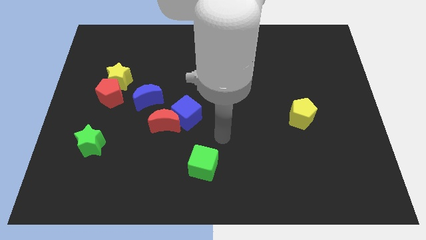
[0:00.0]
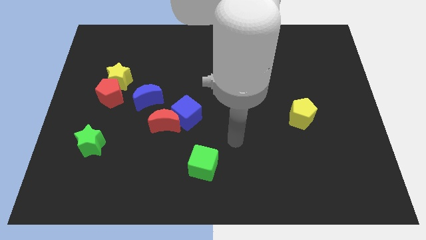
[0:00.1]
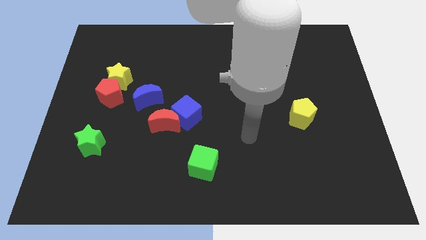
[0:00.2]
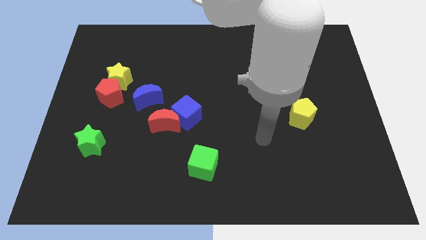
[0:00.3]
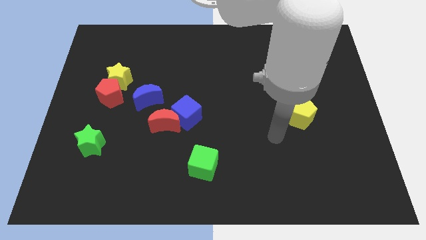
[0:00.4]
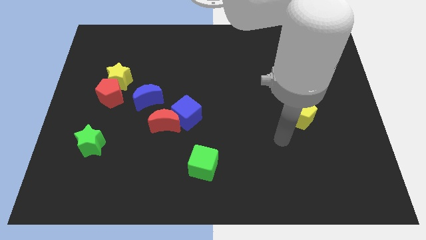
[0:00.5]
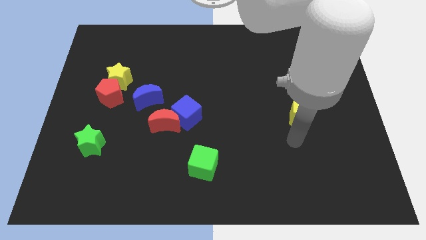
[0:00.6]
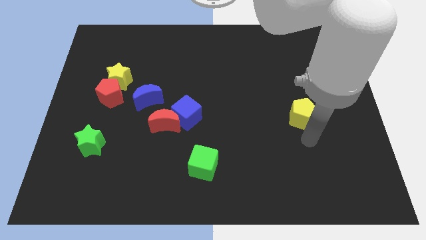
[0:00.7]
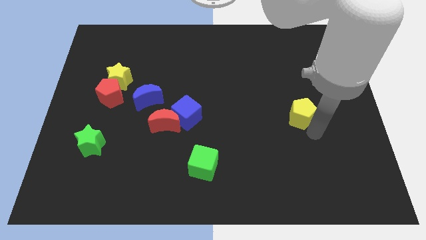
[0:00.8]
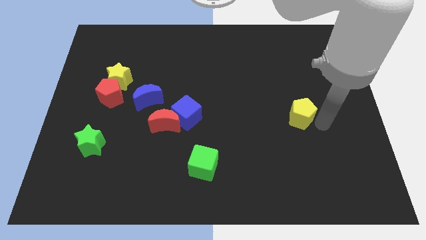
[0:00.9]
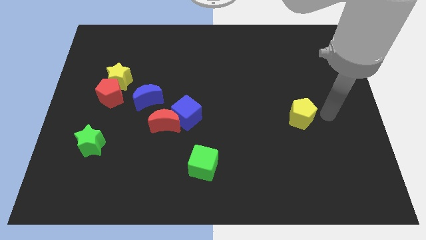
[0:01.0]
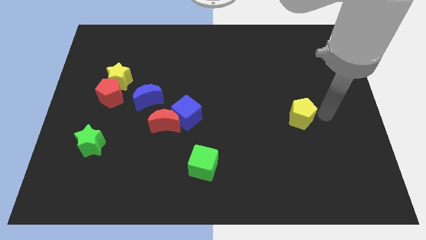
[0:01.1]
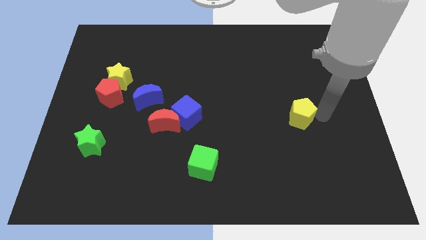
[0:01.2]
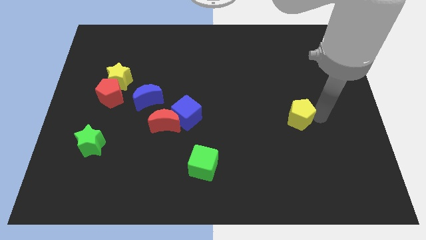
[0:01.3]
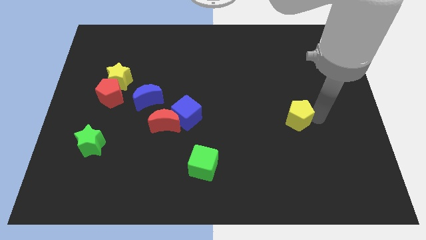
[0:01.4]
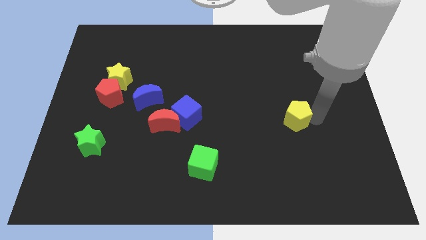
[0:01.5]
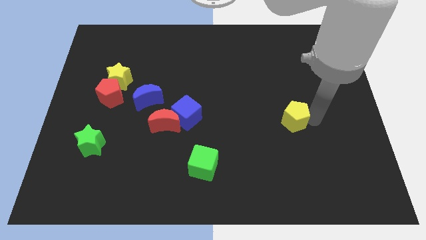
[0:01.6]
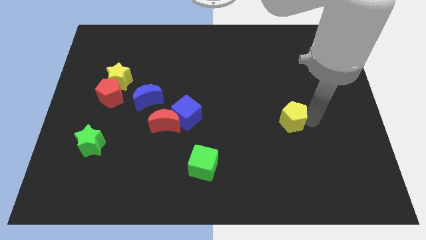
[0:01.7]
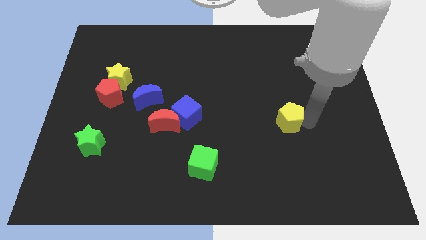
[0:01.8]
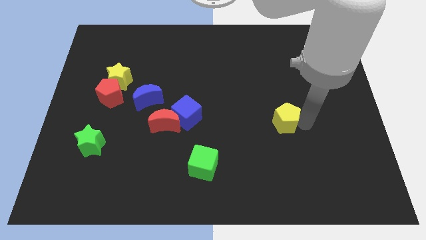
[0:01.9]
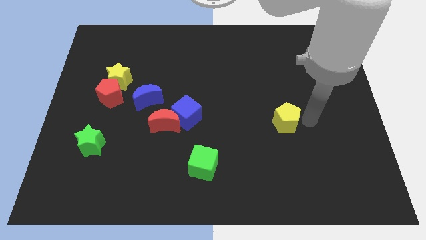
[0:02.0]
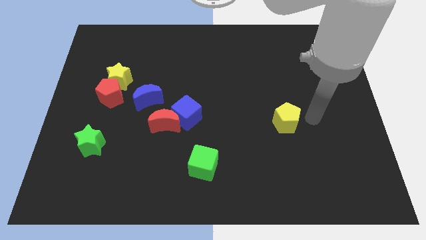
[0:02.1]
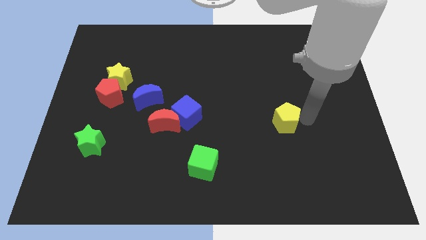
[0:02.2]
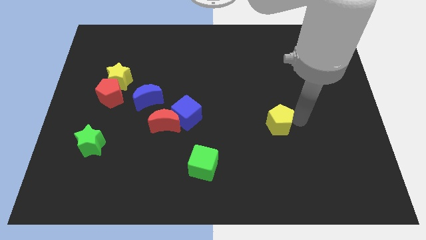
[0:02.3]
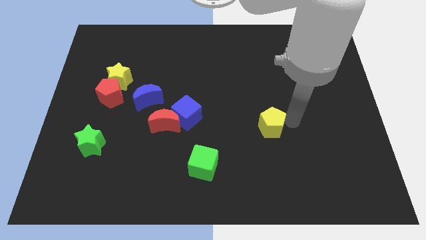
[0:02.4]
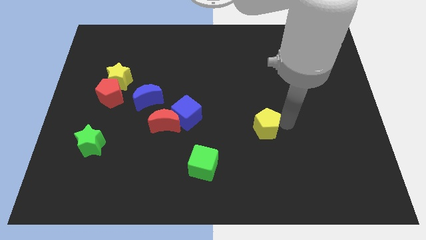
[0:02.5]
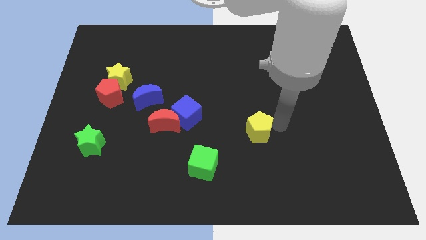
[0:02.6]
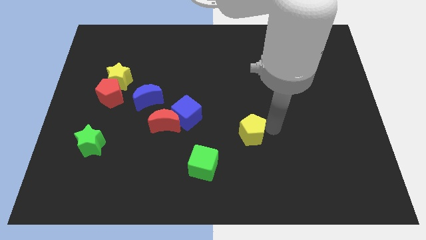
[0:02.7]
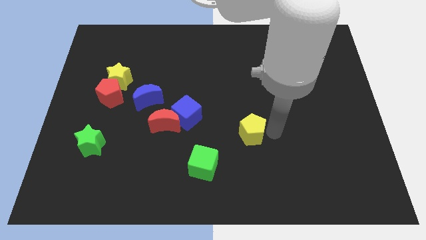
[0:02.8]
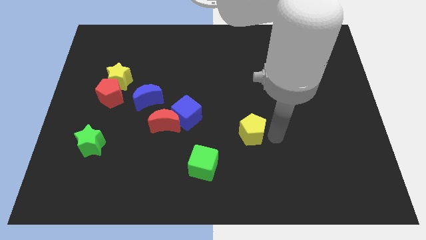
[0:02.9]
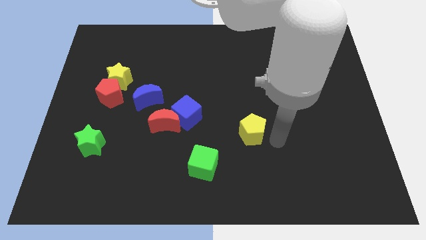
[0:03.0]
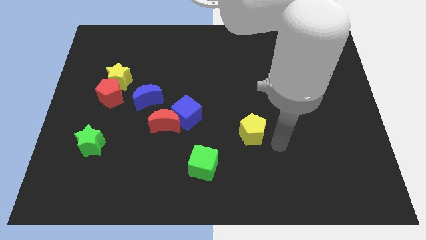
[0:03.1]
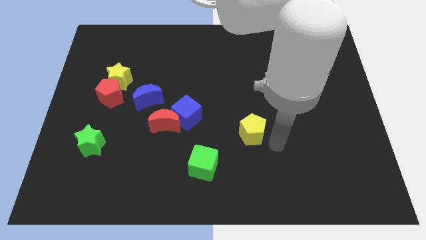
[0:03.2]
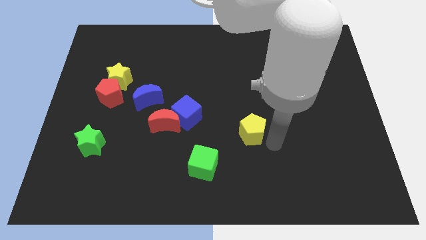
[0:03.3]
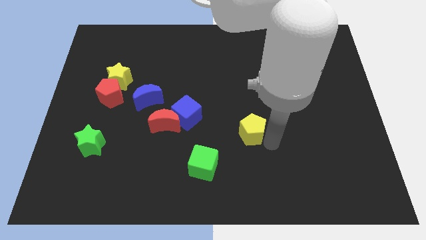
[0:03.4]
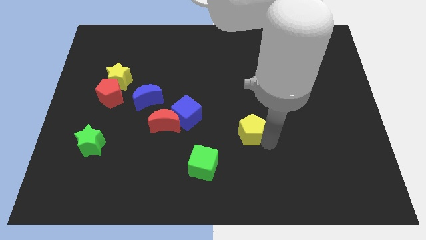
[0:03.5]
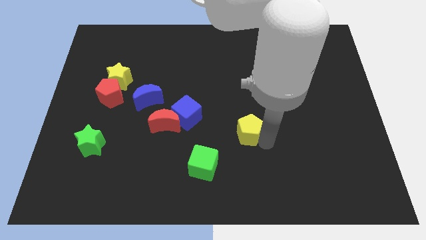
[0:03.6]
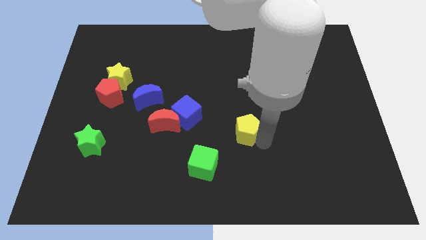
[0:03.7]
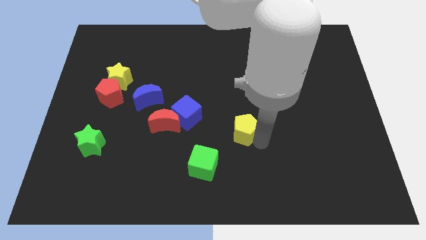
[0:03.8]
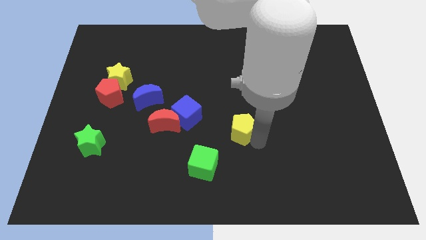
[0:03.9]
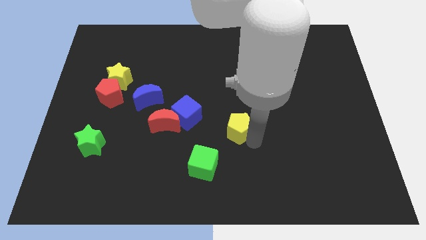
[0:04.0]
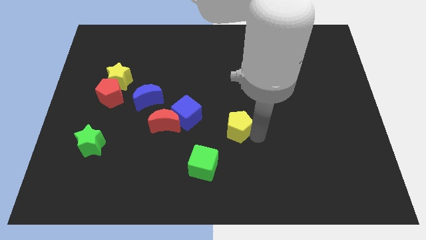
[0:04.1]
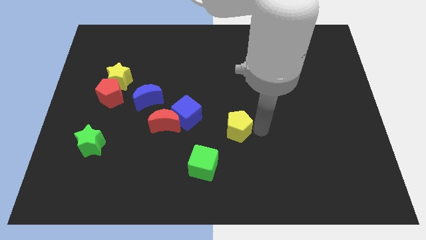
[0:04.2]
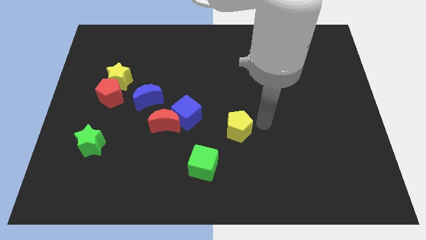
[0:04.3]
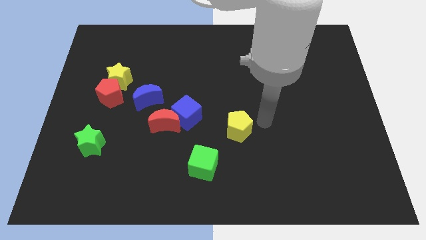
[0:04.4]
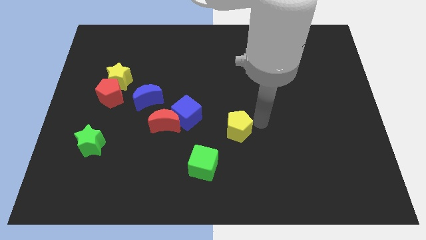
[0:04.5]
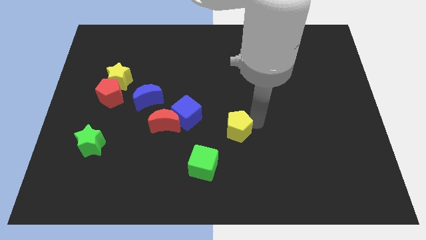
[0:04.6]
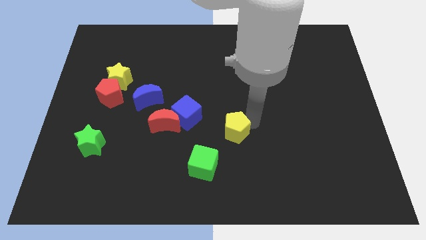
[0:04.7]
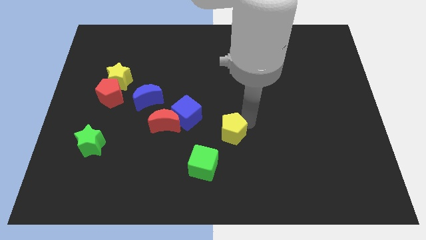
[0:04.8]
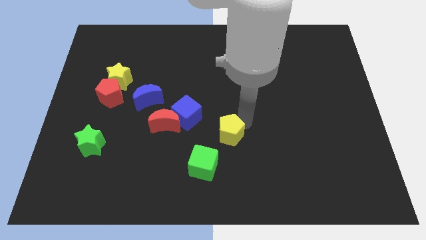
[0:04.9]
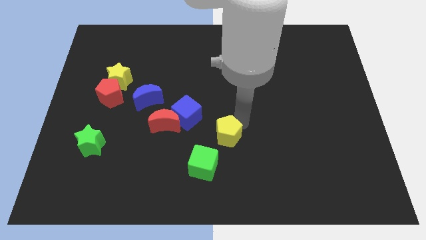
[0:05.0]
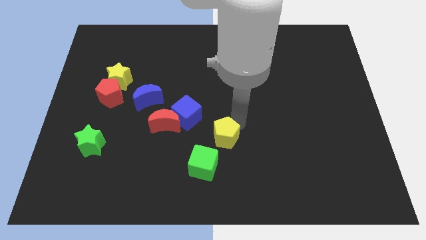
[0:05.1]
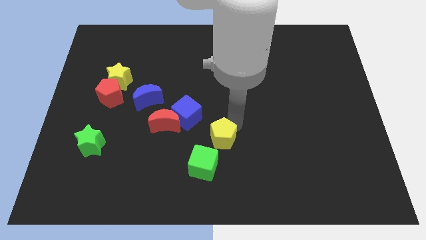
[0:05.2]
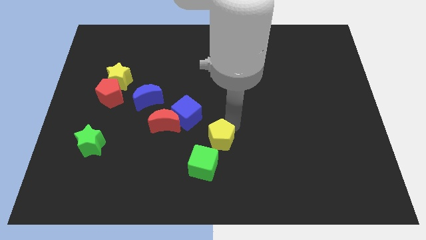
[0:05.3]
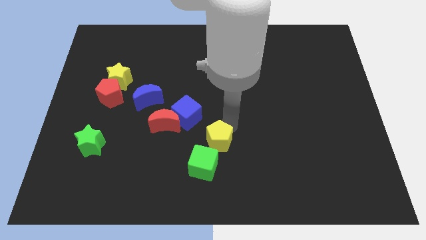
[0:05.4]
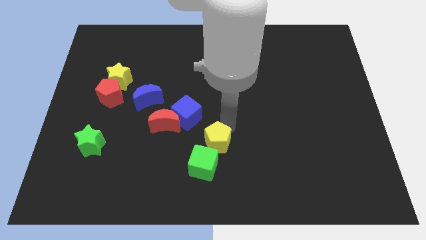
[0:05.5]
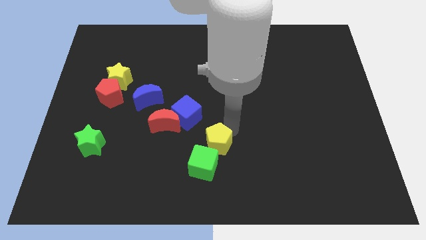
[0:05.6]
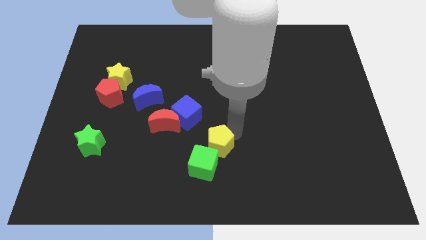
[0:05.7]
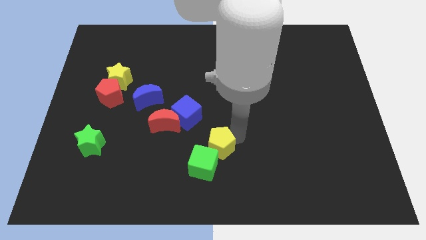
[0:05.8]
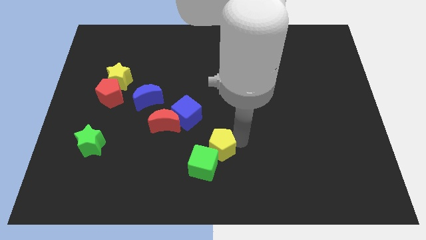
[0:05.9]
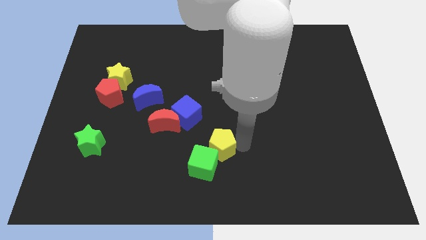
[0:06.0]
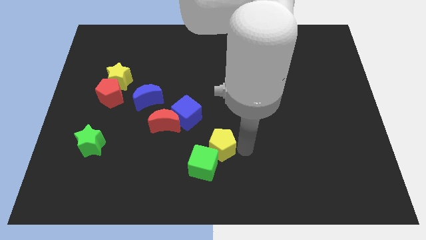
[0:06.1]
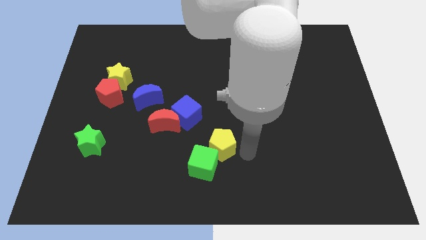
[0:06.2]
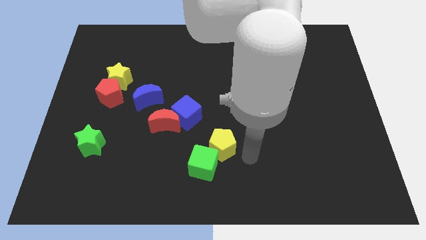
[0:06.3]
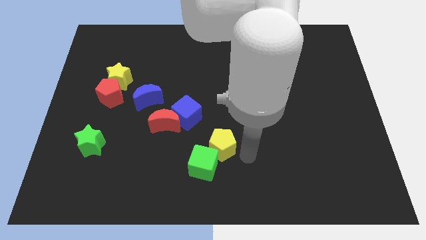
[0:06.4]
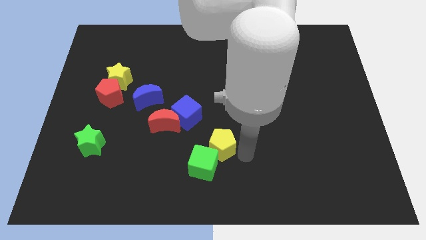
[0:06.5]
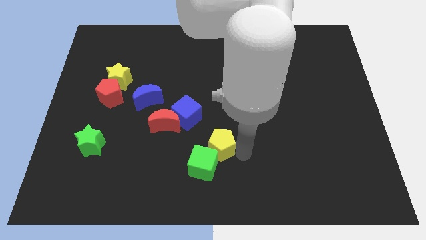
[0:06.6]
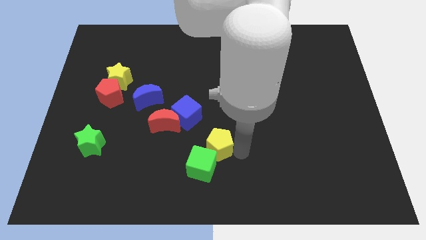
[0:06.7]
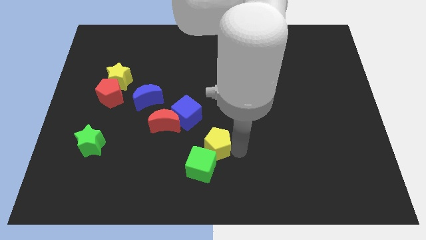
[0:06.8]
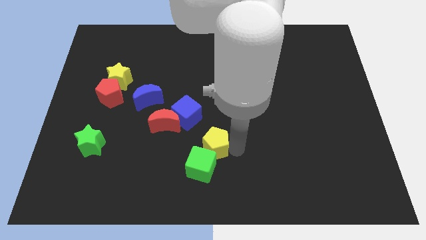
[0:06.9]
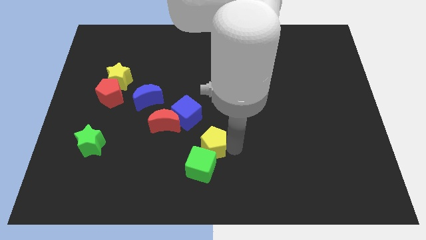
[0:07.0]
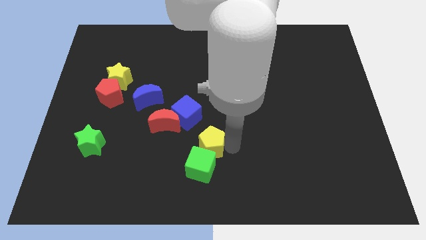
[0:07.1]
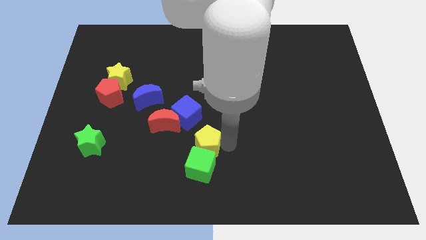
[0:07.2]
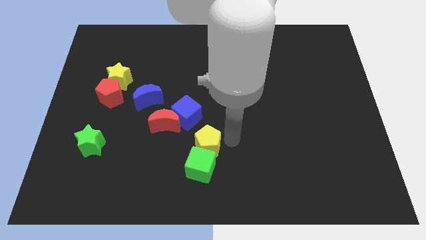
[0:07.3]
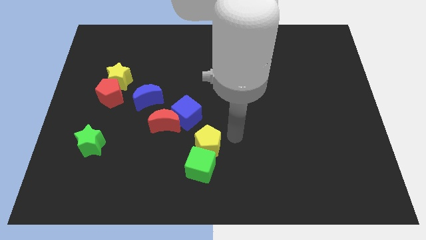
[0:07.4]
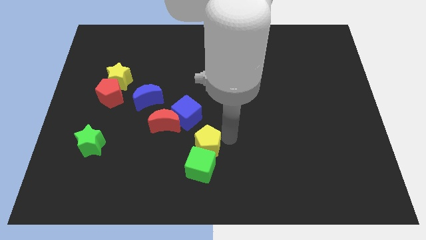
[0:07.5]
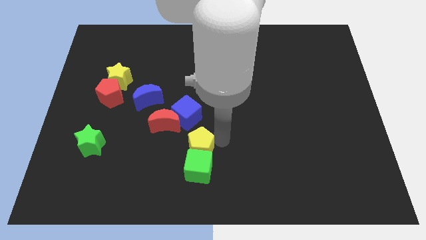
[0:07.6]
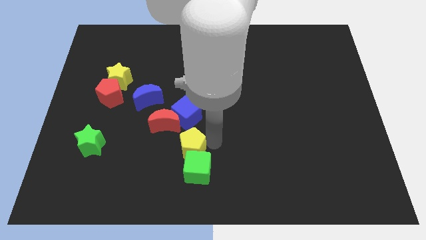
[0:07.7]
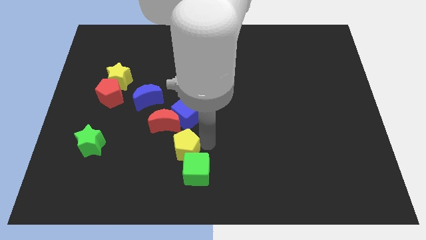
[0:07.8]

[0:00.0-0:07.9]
move the yellow pentagon below the red moon
